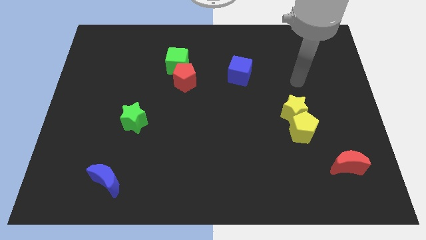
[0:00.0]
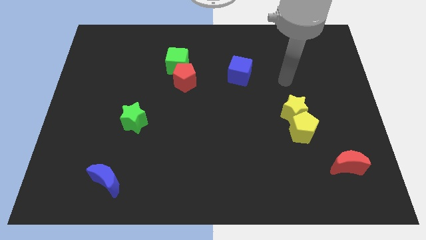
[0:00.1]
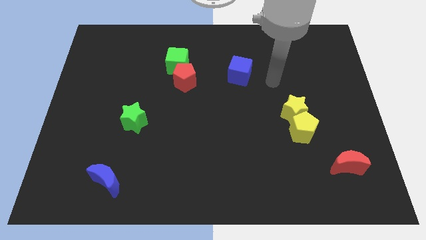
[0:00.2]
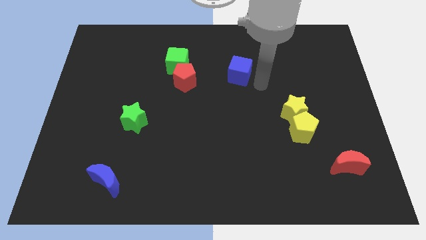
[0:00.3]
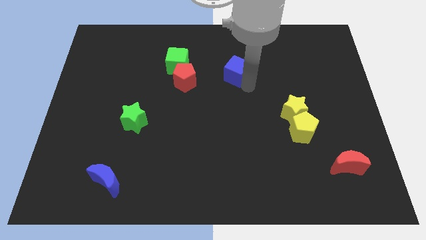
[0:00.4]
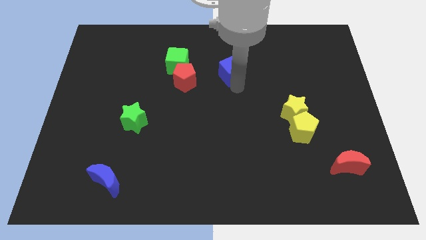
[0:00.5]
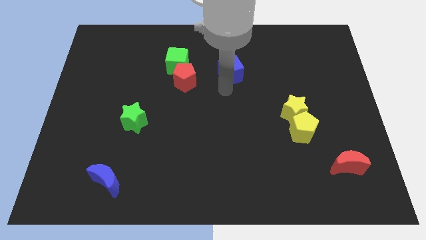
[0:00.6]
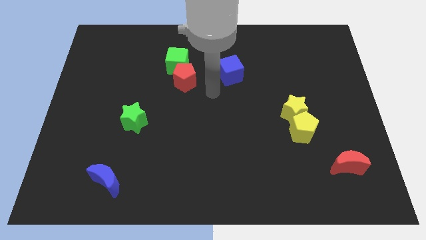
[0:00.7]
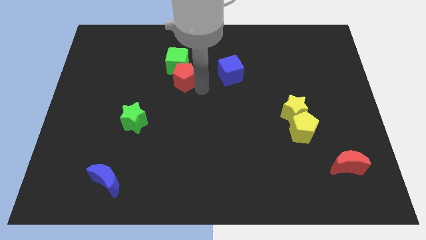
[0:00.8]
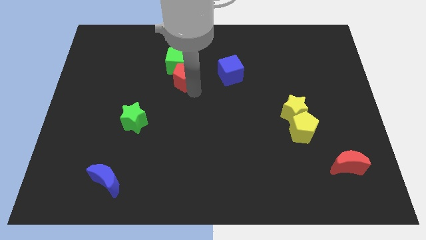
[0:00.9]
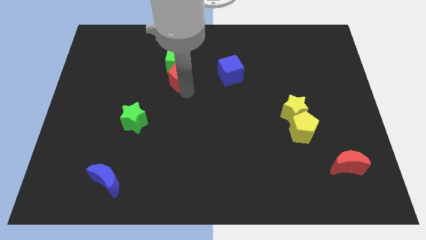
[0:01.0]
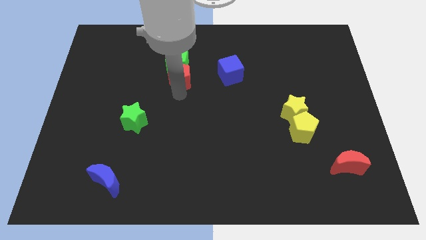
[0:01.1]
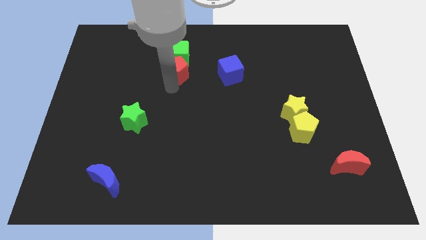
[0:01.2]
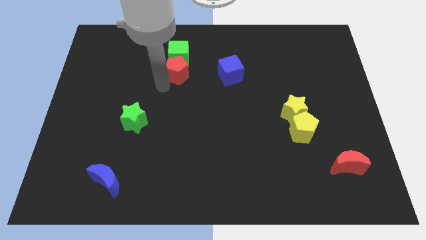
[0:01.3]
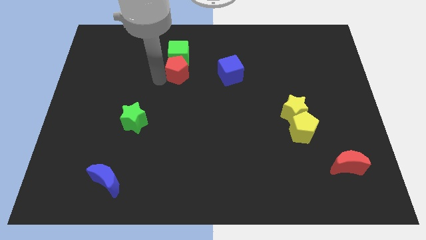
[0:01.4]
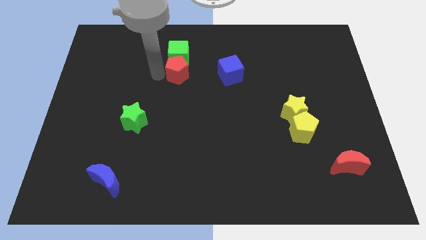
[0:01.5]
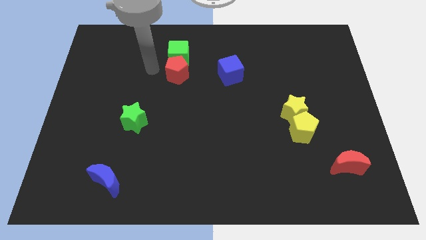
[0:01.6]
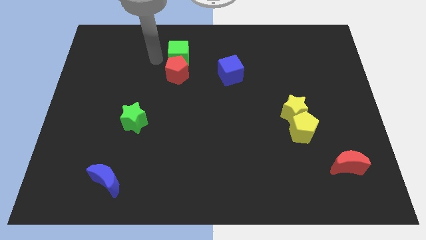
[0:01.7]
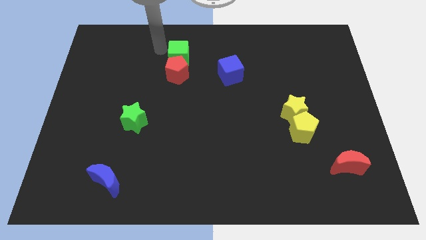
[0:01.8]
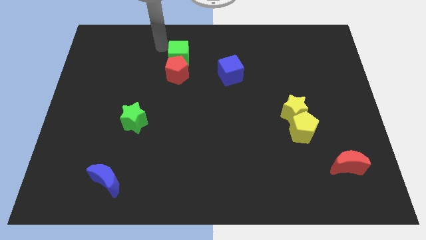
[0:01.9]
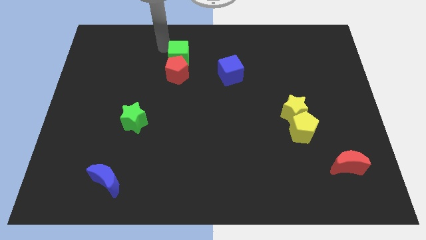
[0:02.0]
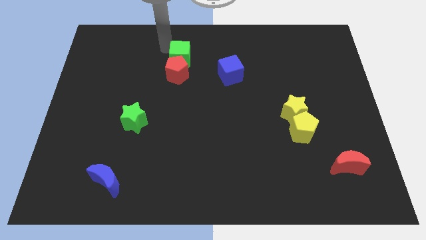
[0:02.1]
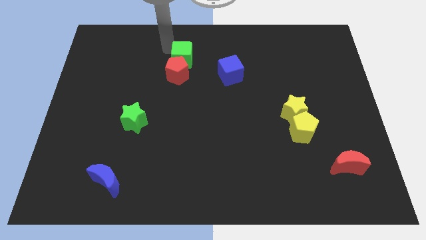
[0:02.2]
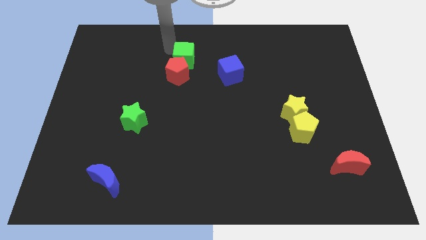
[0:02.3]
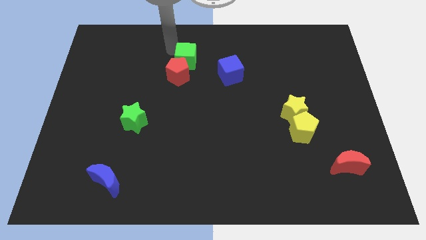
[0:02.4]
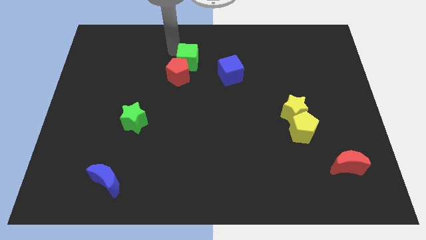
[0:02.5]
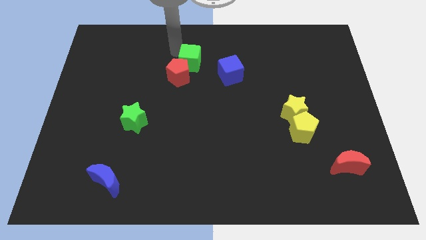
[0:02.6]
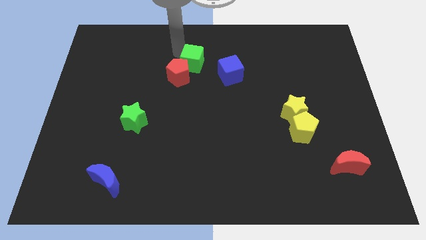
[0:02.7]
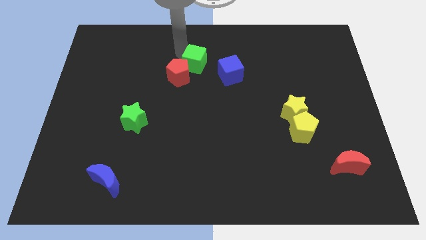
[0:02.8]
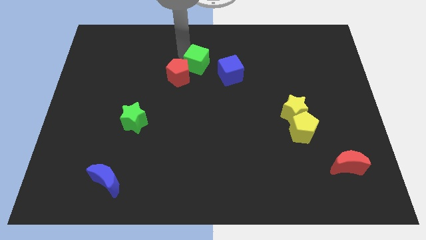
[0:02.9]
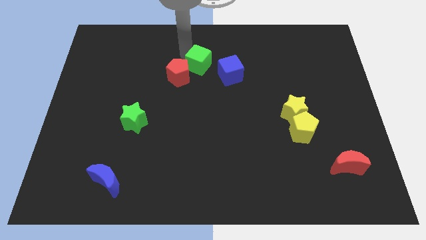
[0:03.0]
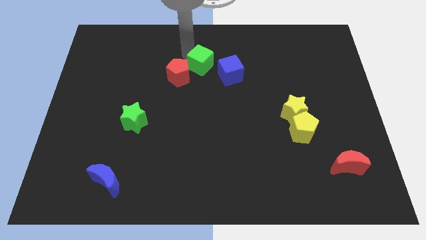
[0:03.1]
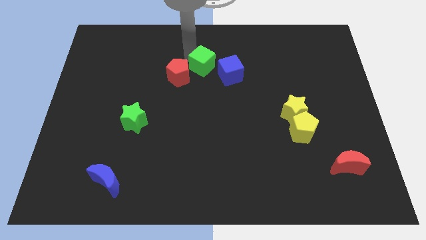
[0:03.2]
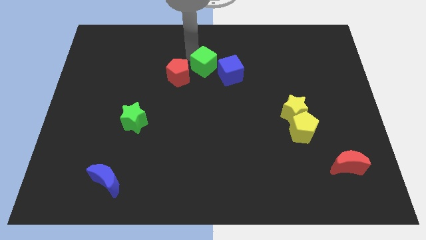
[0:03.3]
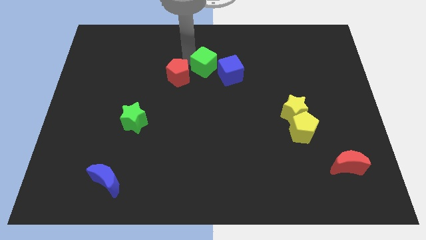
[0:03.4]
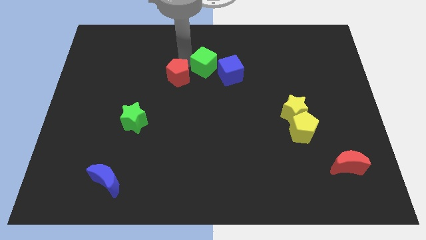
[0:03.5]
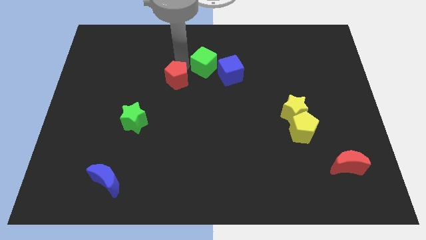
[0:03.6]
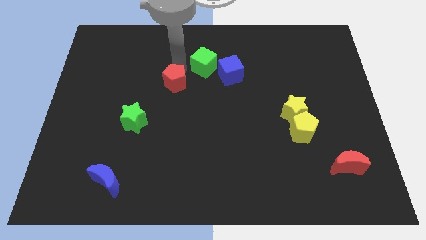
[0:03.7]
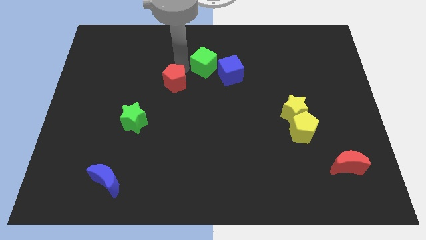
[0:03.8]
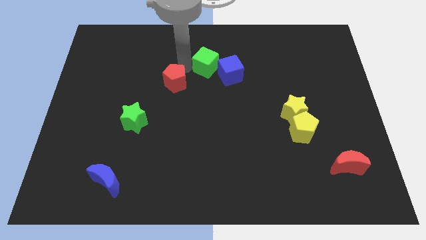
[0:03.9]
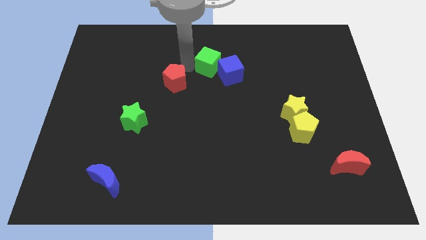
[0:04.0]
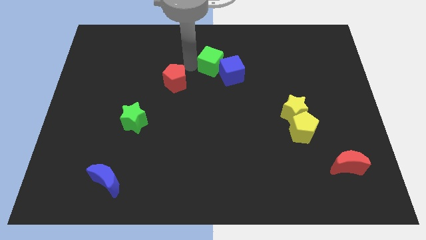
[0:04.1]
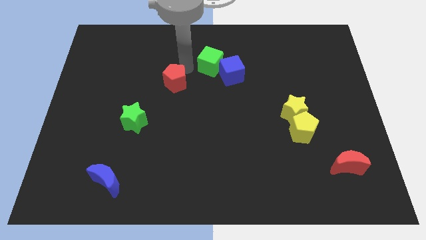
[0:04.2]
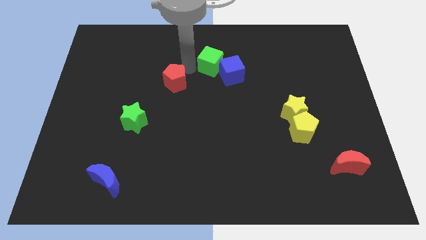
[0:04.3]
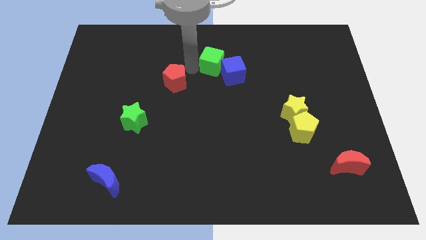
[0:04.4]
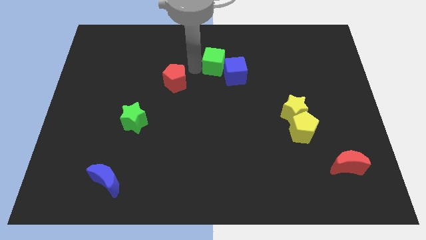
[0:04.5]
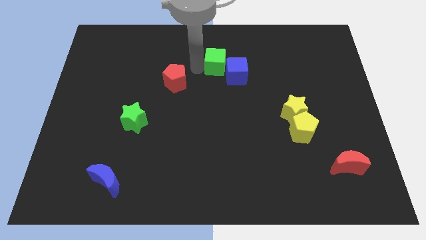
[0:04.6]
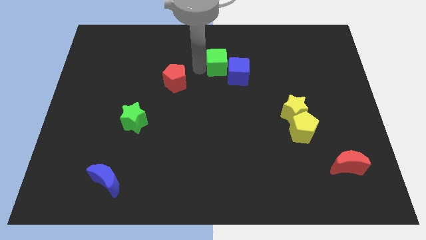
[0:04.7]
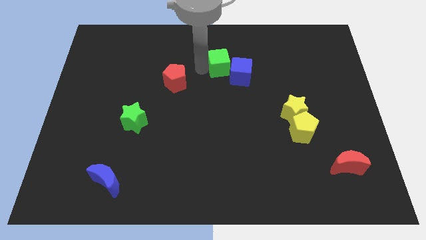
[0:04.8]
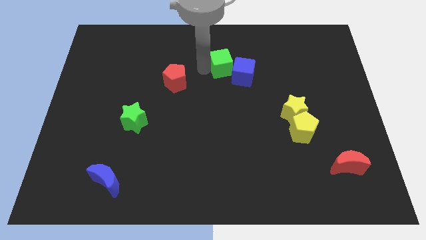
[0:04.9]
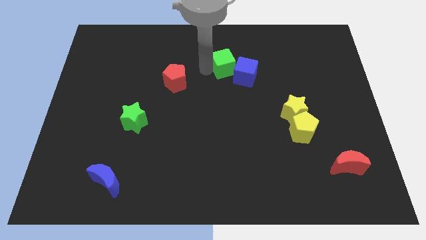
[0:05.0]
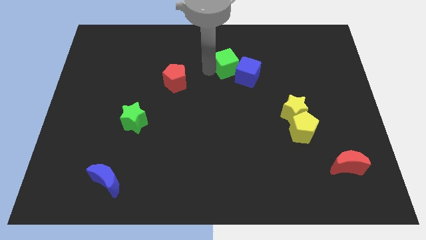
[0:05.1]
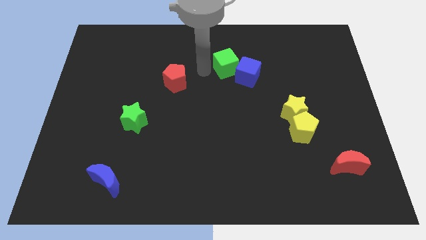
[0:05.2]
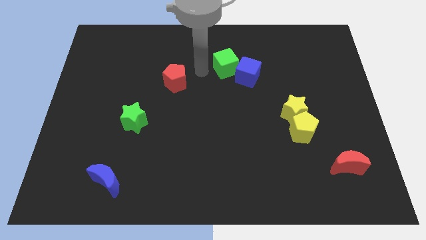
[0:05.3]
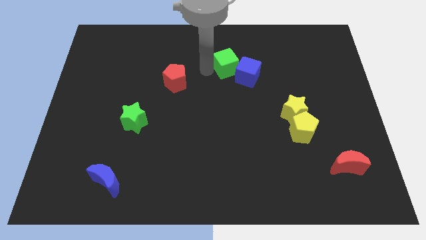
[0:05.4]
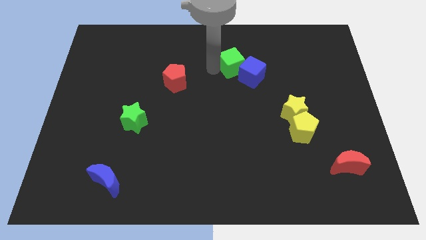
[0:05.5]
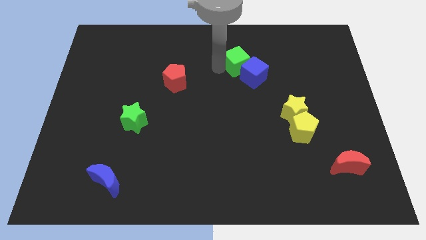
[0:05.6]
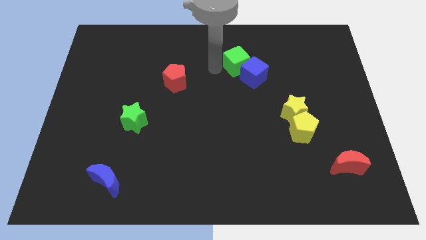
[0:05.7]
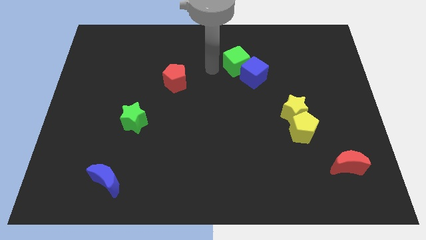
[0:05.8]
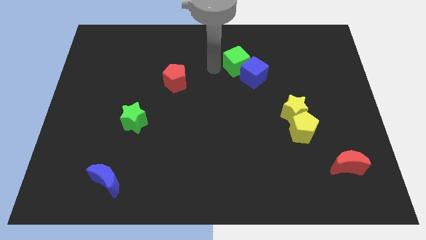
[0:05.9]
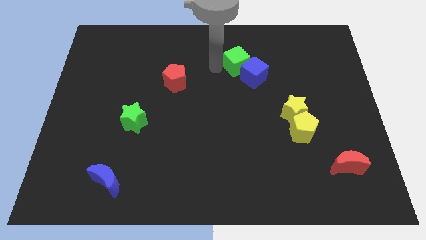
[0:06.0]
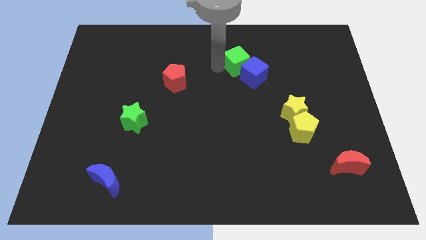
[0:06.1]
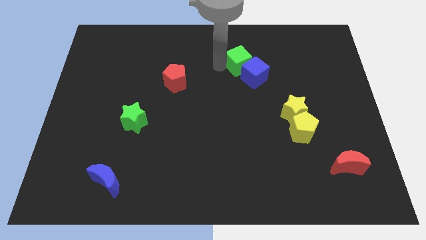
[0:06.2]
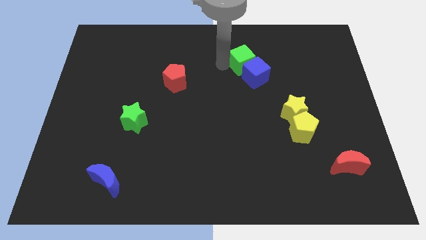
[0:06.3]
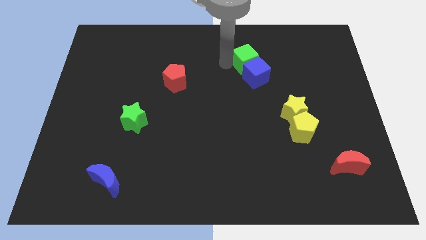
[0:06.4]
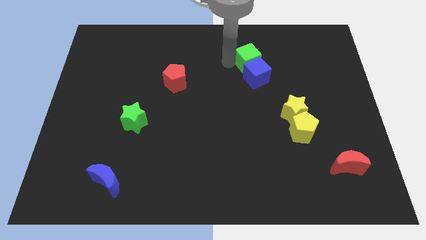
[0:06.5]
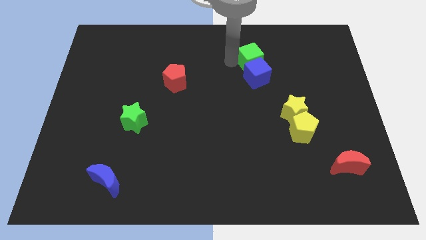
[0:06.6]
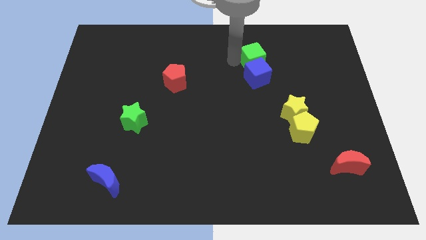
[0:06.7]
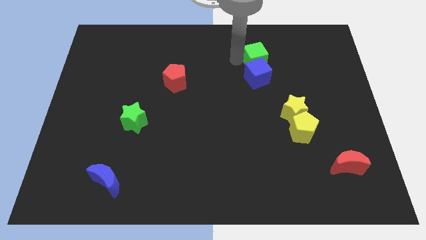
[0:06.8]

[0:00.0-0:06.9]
move the green cube right

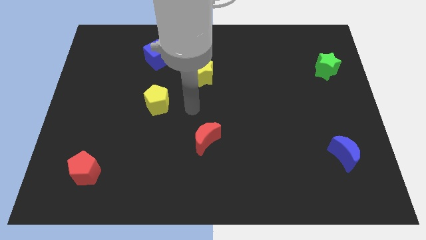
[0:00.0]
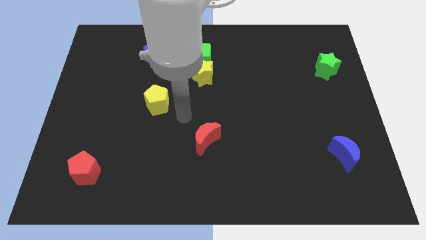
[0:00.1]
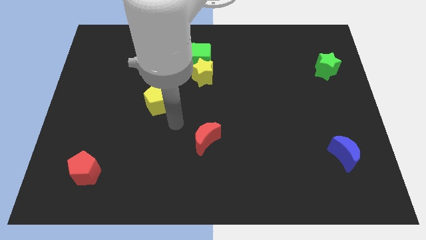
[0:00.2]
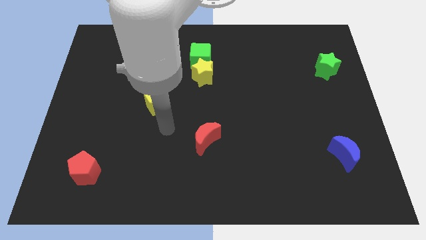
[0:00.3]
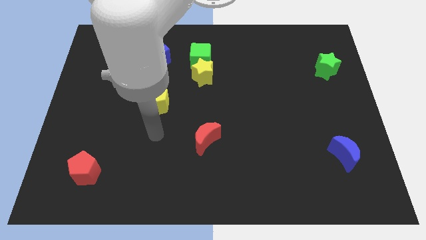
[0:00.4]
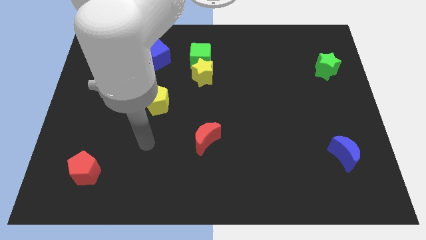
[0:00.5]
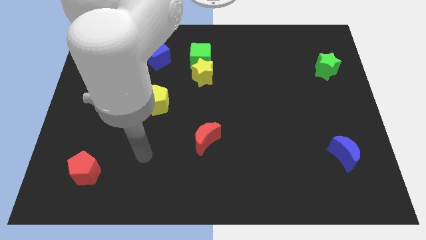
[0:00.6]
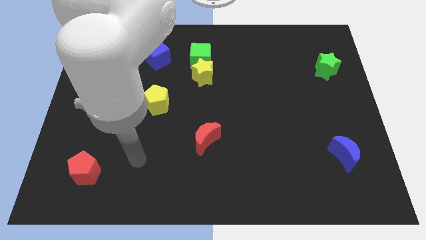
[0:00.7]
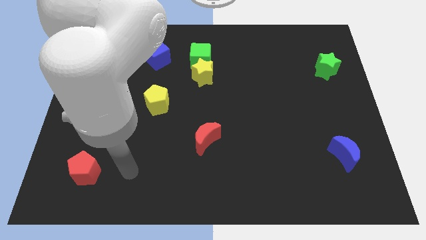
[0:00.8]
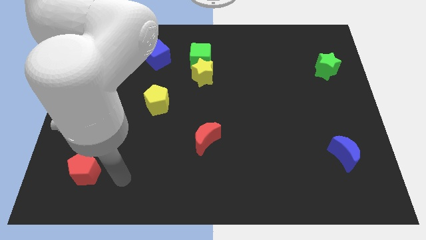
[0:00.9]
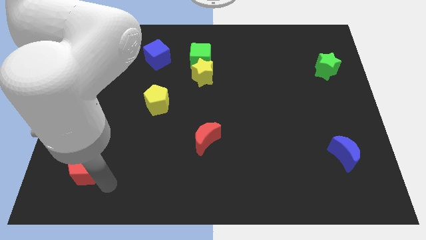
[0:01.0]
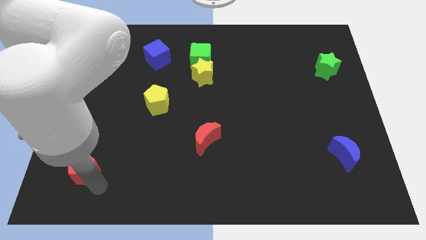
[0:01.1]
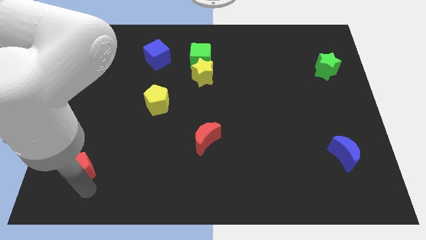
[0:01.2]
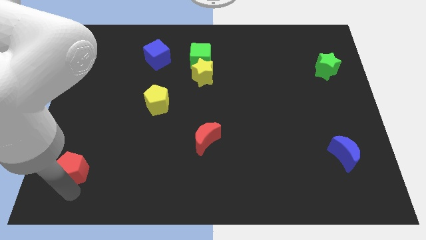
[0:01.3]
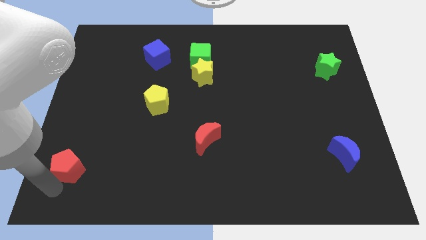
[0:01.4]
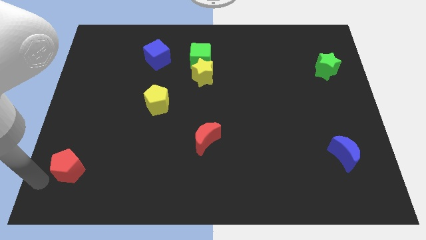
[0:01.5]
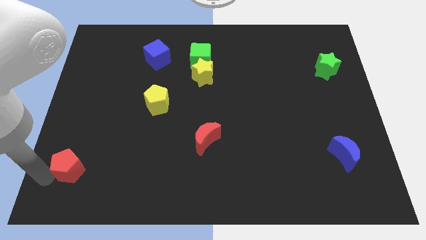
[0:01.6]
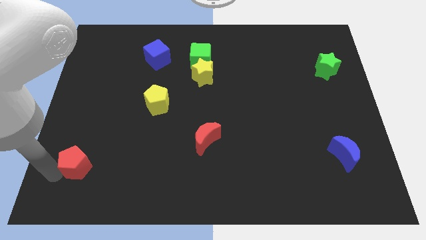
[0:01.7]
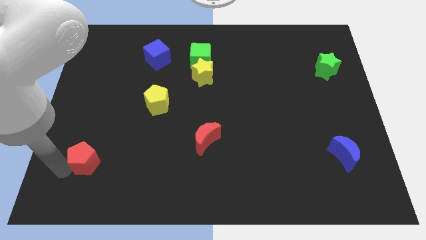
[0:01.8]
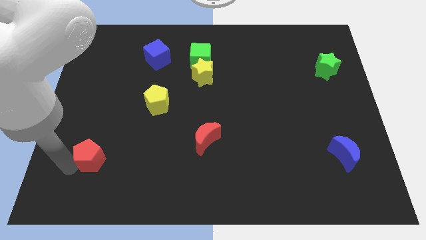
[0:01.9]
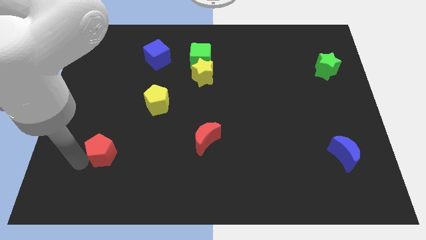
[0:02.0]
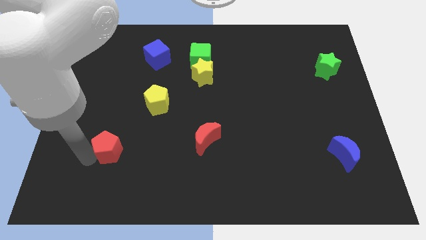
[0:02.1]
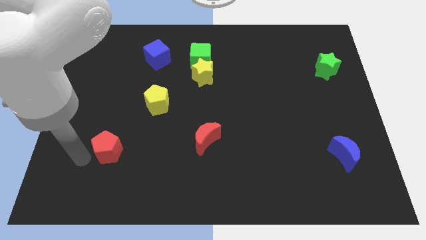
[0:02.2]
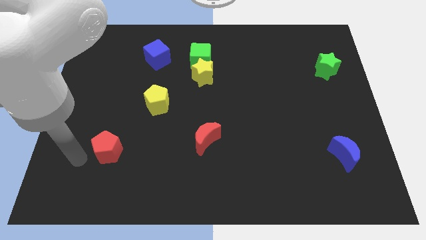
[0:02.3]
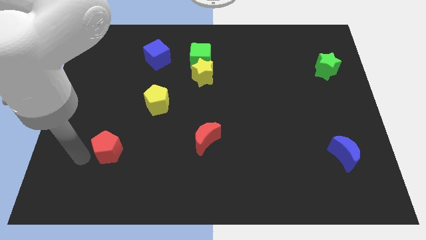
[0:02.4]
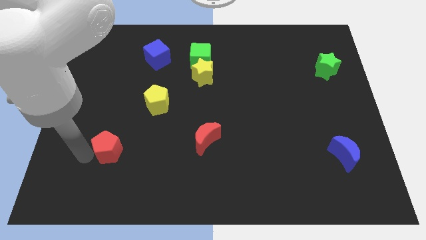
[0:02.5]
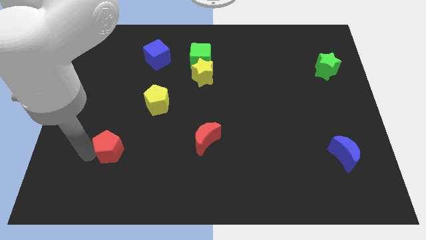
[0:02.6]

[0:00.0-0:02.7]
push the red pentagon up and to the right diagonally slightly
